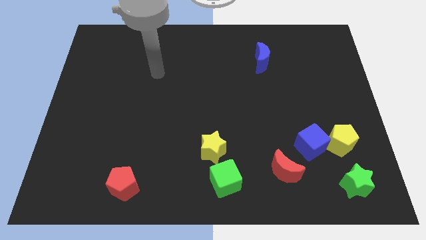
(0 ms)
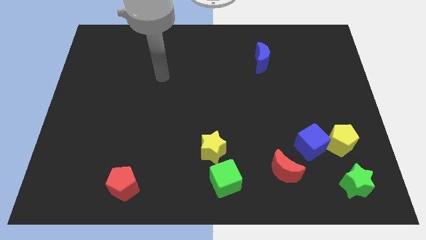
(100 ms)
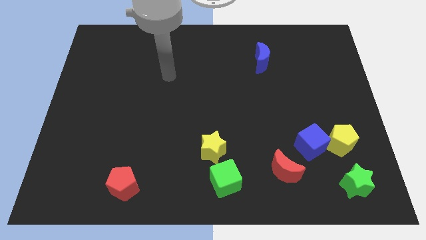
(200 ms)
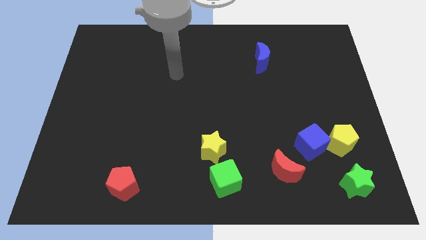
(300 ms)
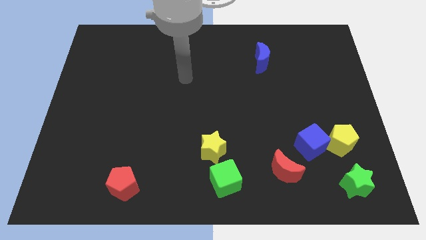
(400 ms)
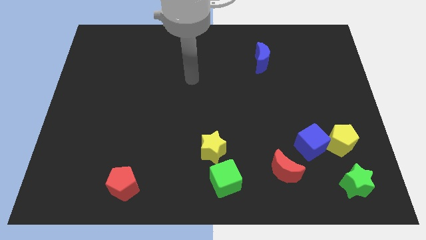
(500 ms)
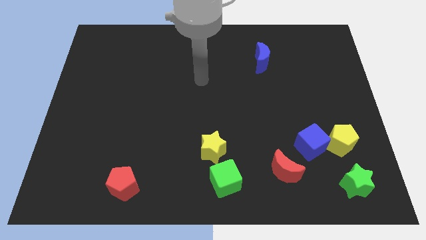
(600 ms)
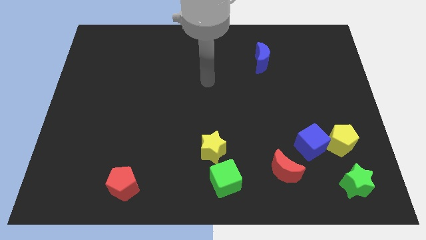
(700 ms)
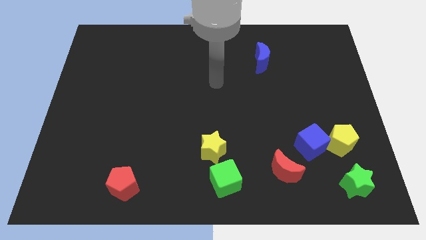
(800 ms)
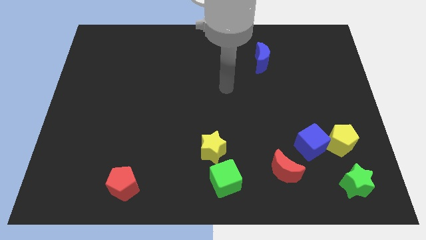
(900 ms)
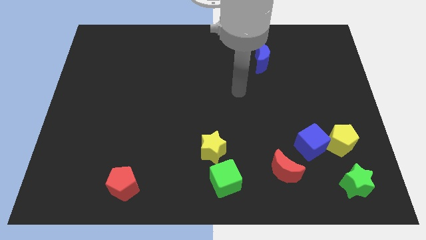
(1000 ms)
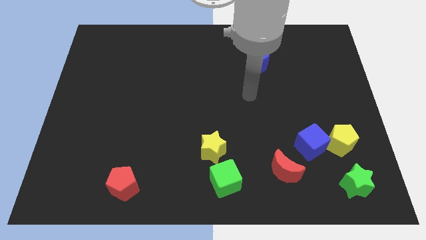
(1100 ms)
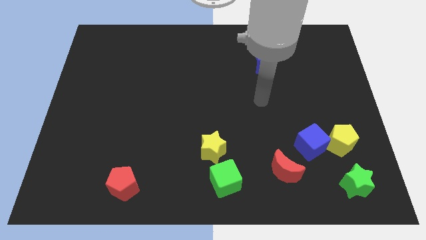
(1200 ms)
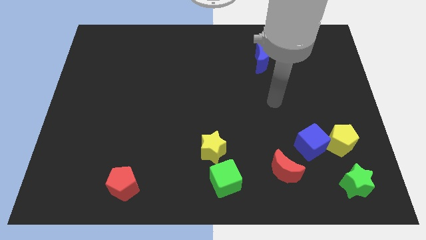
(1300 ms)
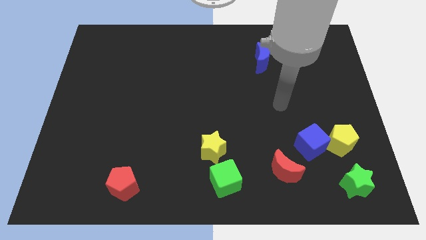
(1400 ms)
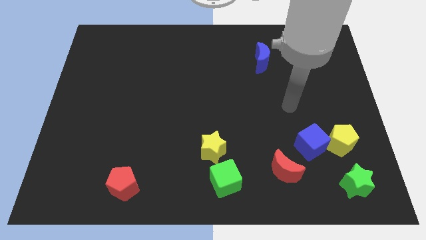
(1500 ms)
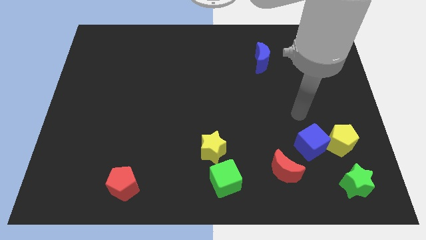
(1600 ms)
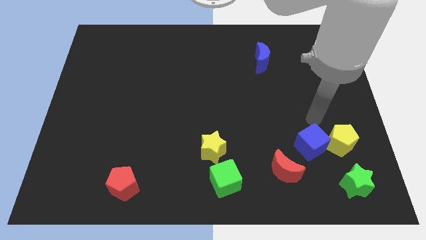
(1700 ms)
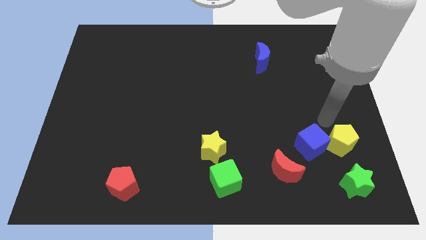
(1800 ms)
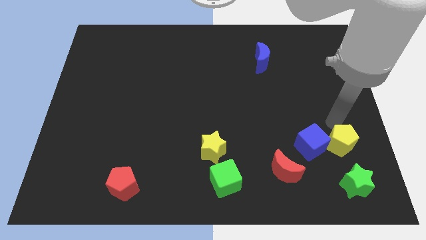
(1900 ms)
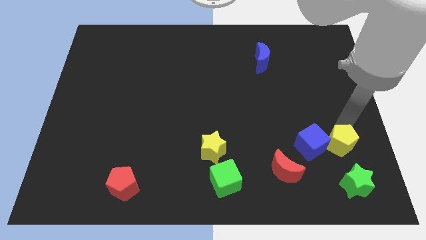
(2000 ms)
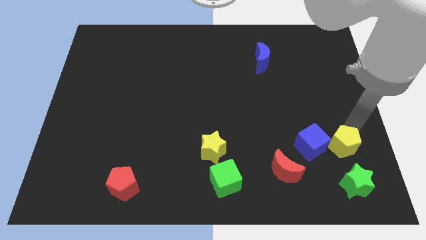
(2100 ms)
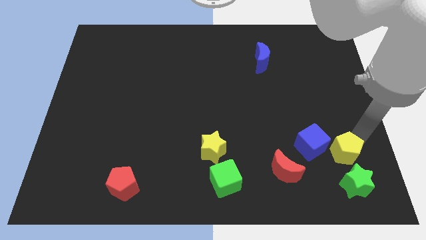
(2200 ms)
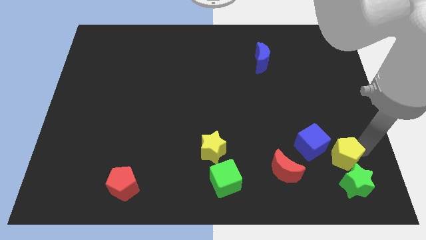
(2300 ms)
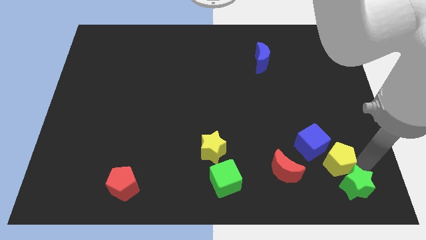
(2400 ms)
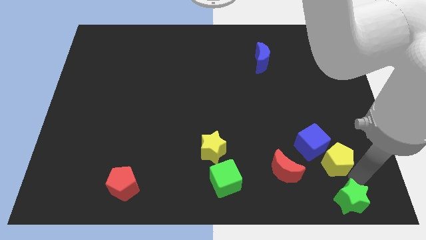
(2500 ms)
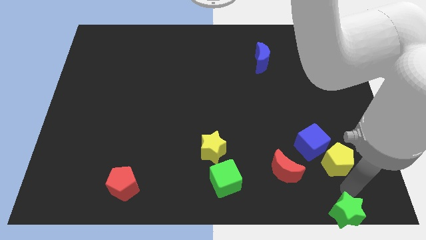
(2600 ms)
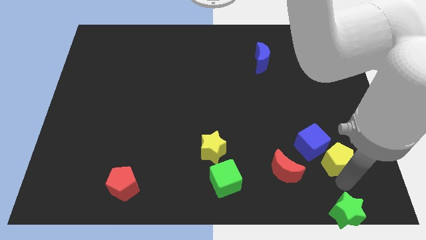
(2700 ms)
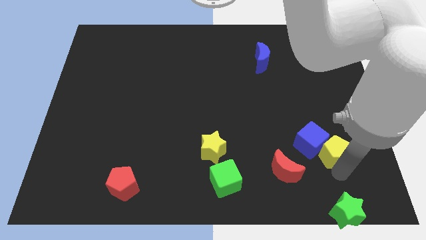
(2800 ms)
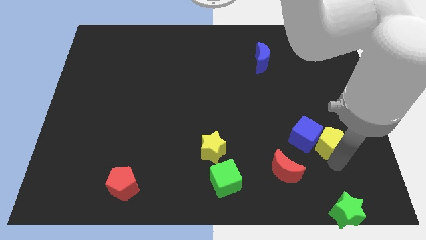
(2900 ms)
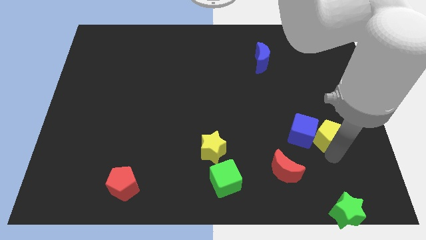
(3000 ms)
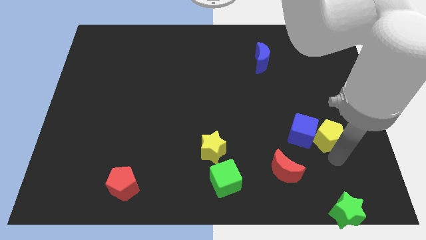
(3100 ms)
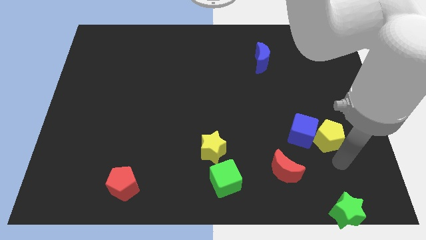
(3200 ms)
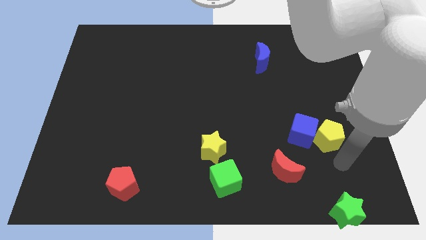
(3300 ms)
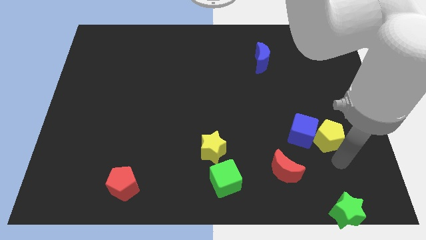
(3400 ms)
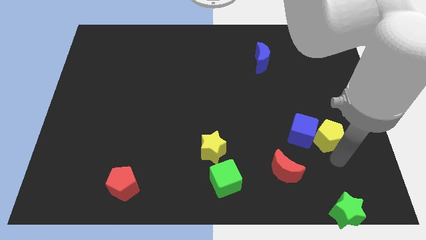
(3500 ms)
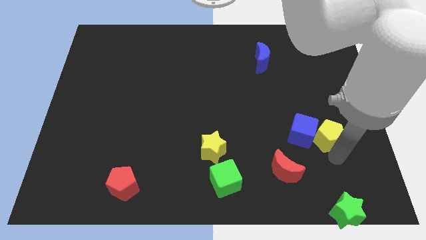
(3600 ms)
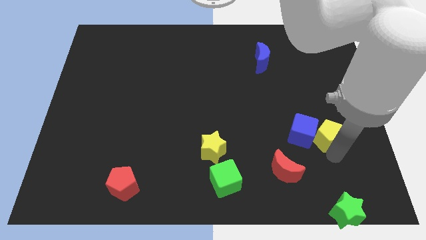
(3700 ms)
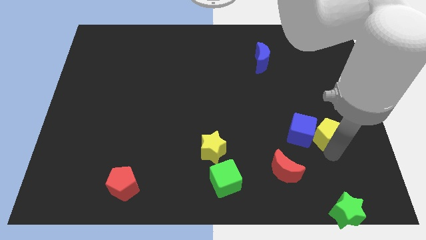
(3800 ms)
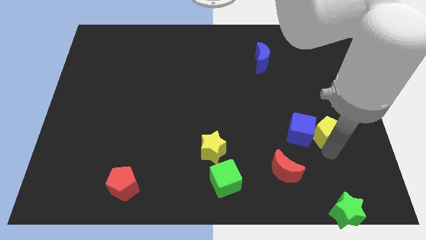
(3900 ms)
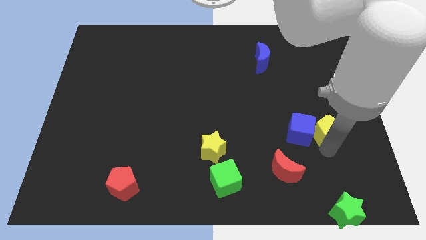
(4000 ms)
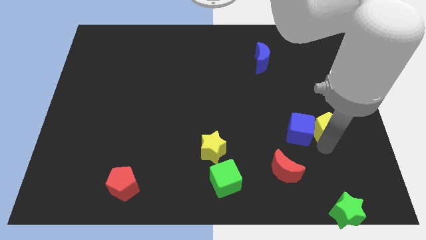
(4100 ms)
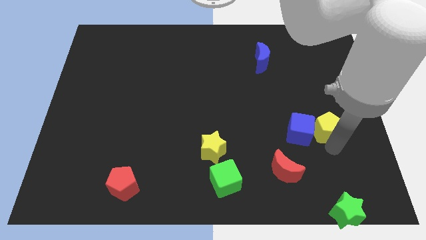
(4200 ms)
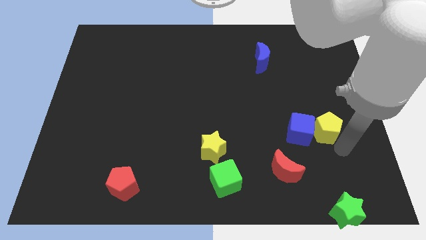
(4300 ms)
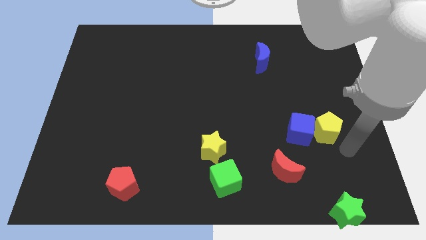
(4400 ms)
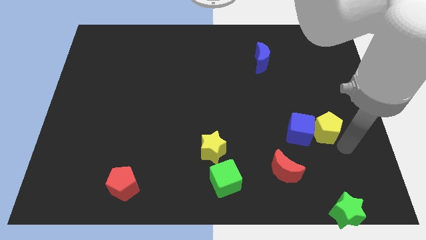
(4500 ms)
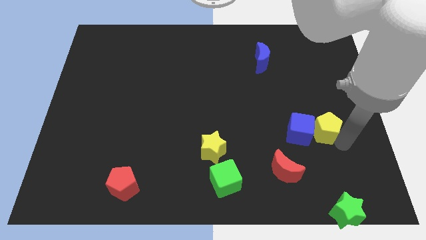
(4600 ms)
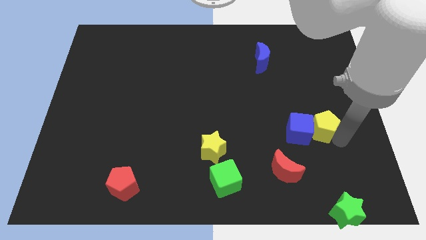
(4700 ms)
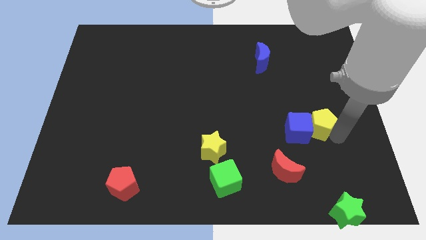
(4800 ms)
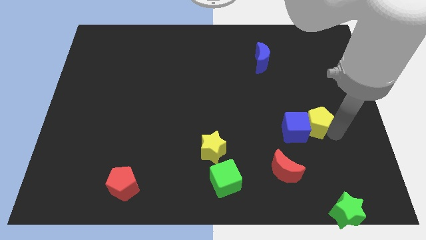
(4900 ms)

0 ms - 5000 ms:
push the yellow pentagon slightly upwards and left

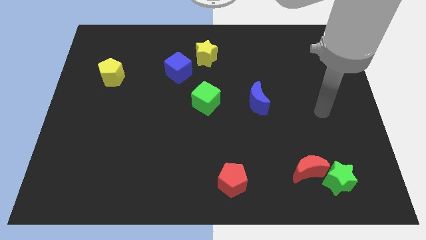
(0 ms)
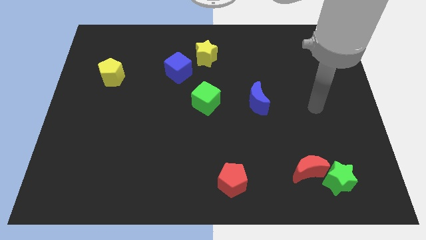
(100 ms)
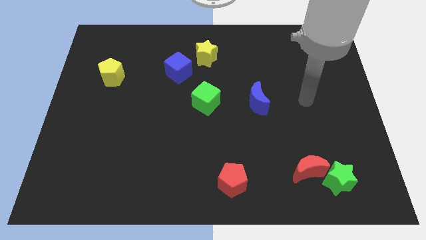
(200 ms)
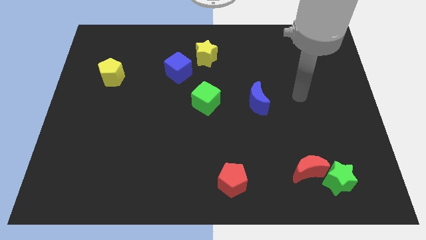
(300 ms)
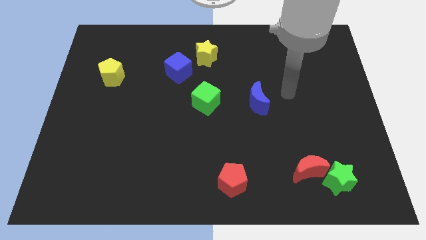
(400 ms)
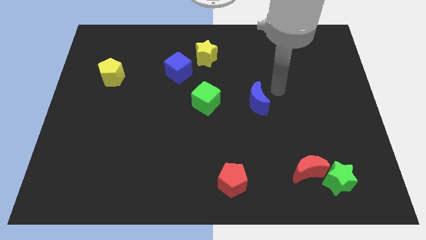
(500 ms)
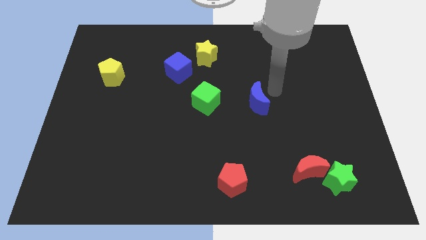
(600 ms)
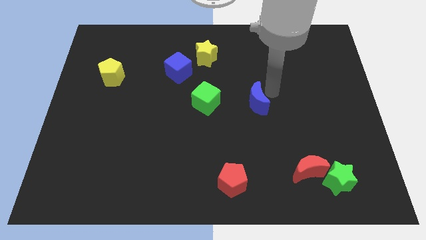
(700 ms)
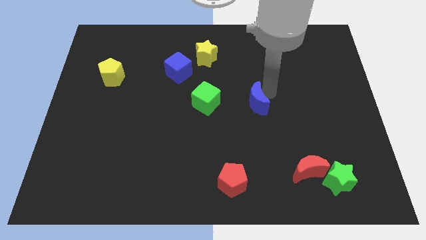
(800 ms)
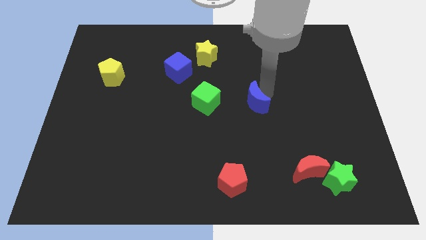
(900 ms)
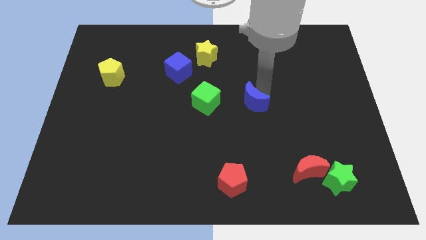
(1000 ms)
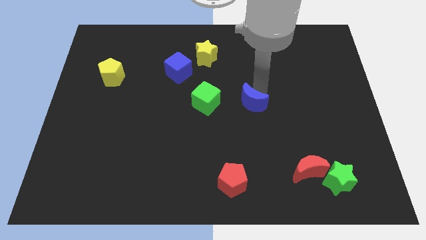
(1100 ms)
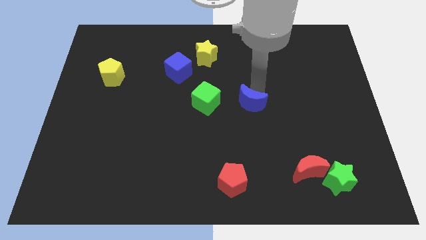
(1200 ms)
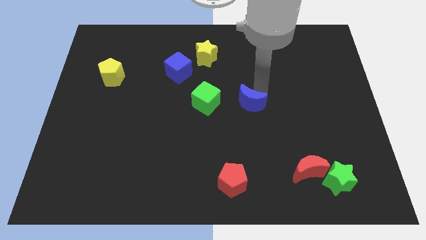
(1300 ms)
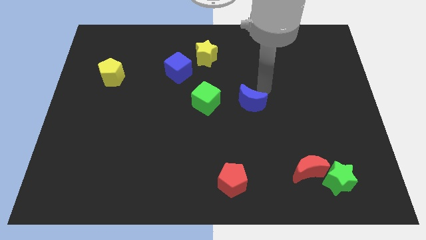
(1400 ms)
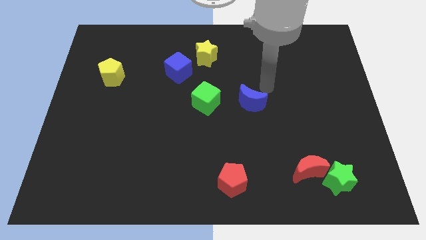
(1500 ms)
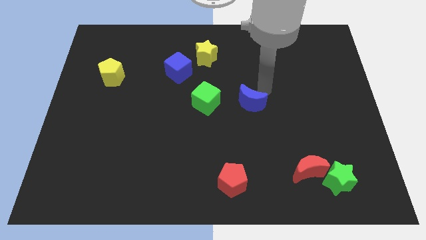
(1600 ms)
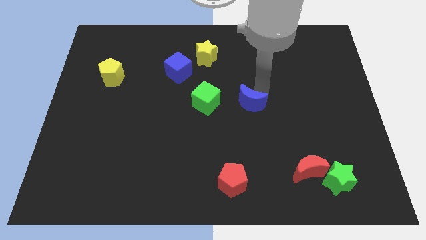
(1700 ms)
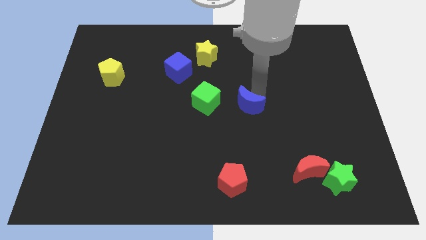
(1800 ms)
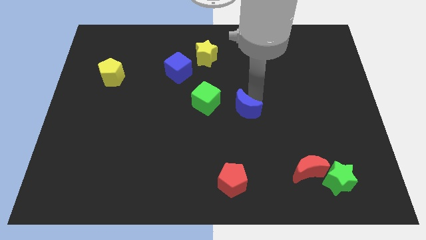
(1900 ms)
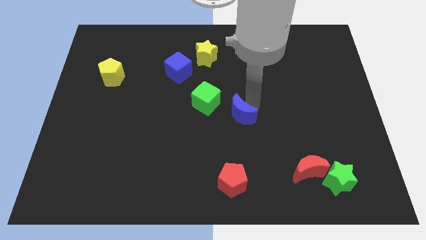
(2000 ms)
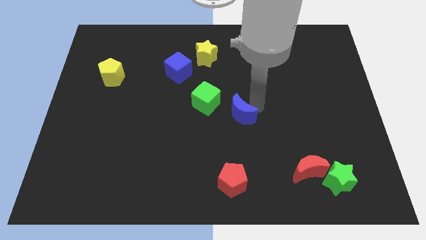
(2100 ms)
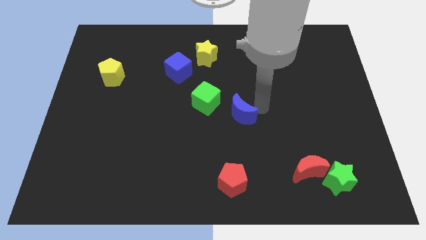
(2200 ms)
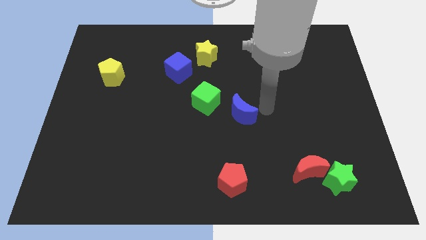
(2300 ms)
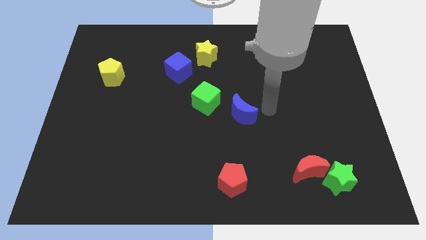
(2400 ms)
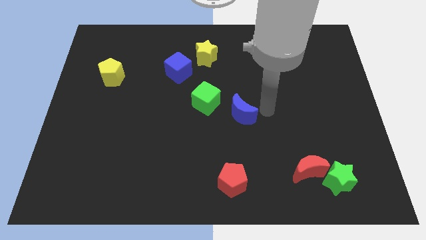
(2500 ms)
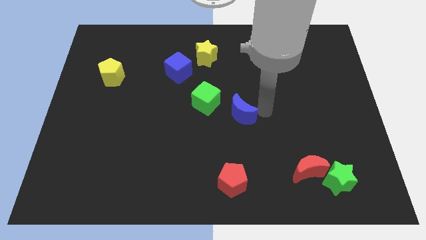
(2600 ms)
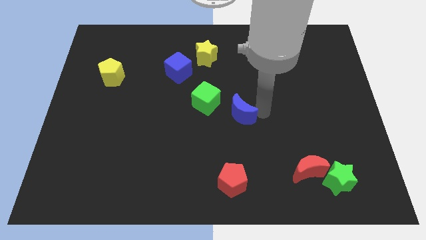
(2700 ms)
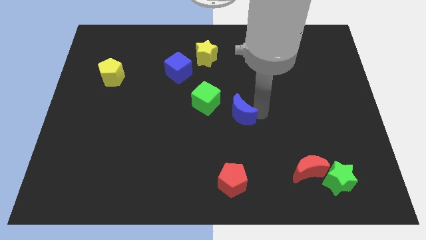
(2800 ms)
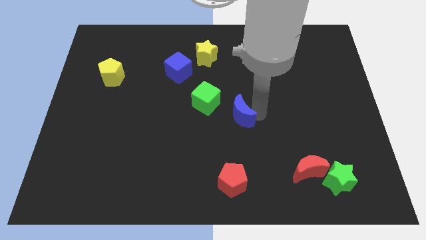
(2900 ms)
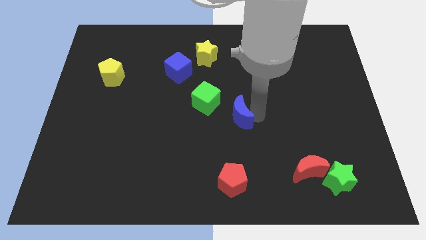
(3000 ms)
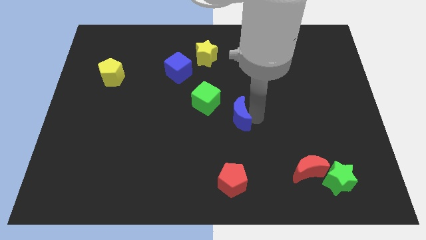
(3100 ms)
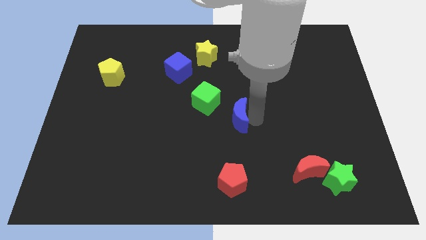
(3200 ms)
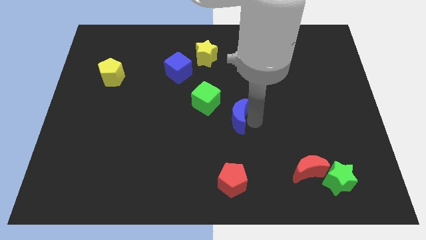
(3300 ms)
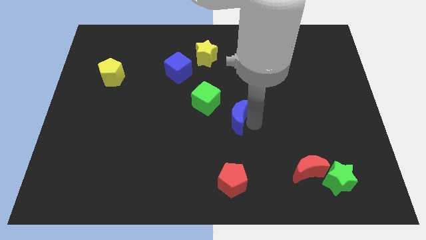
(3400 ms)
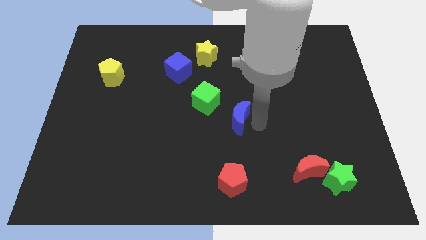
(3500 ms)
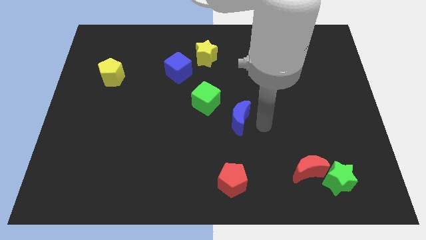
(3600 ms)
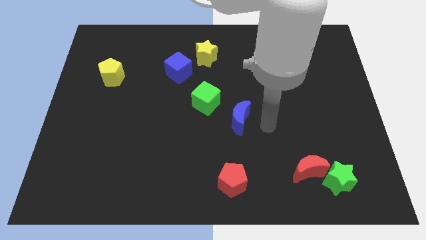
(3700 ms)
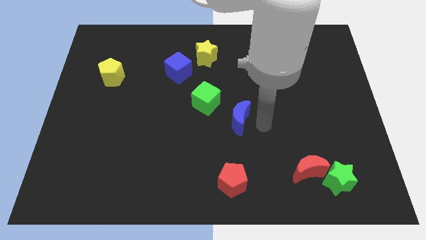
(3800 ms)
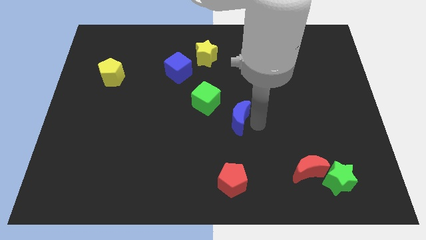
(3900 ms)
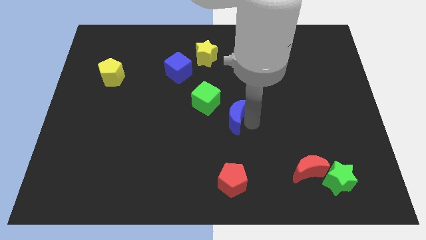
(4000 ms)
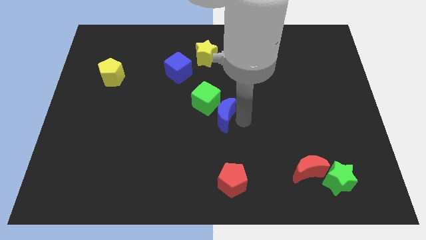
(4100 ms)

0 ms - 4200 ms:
slightly slide the blue moon to the left
